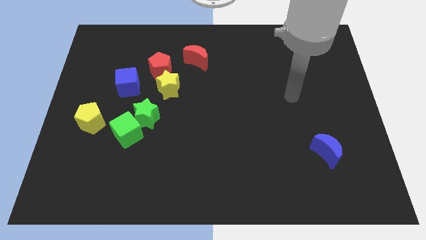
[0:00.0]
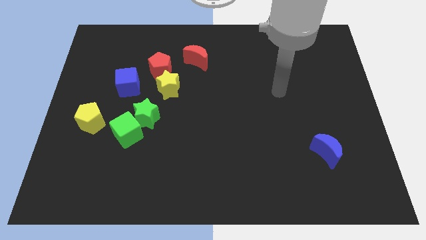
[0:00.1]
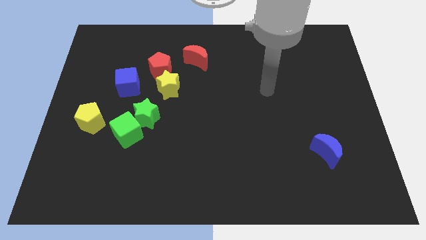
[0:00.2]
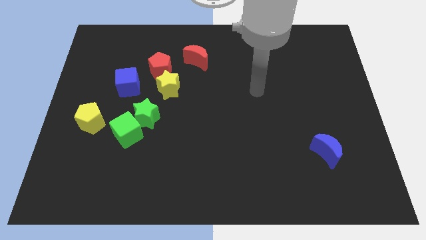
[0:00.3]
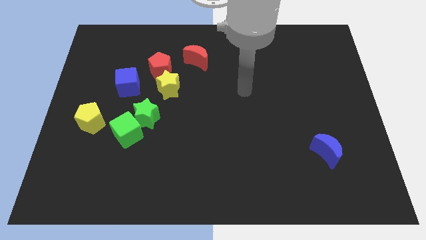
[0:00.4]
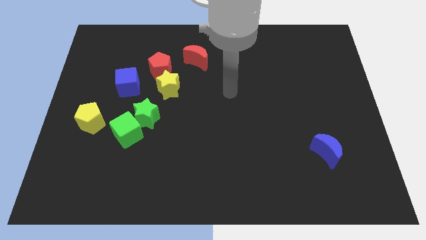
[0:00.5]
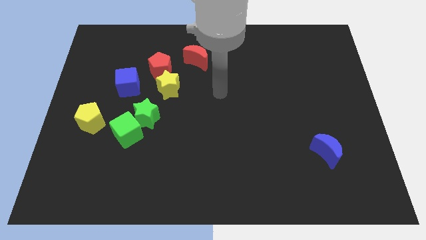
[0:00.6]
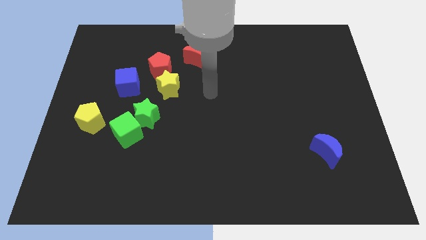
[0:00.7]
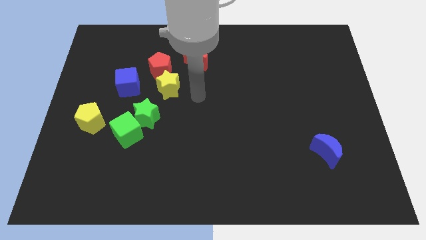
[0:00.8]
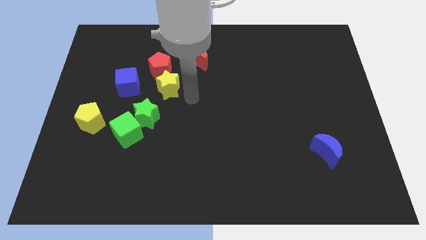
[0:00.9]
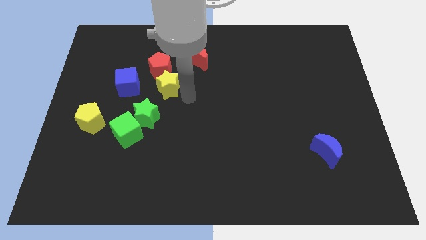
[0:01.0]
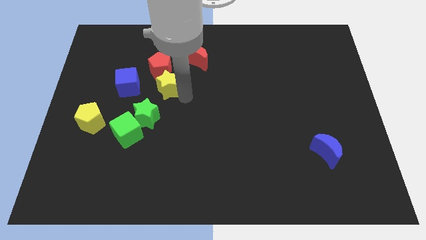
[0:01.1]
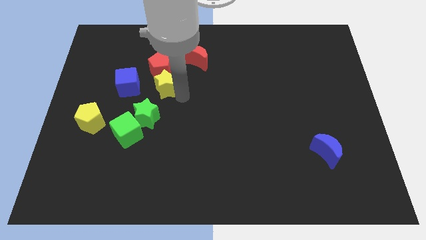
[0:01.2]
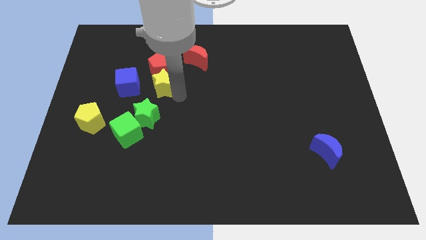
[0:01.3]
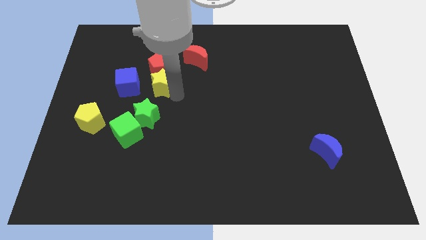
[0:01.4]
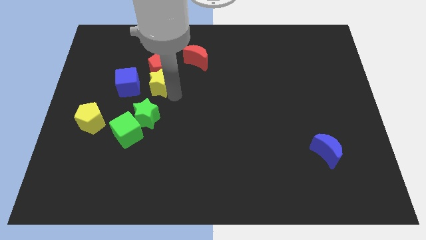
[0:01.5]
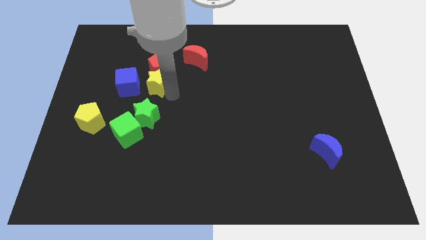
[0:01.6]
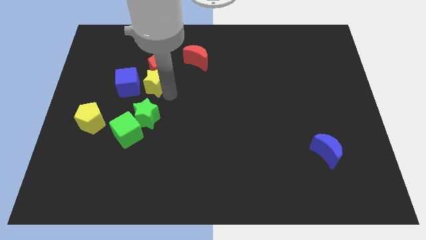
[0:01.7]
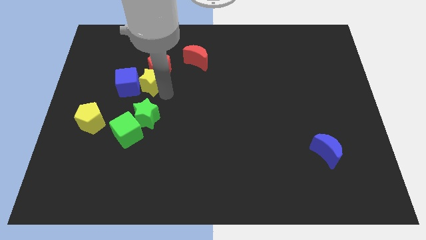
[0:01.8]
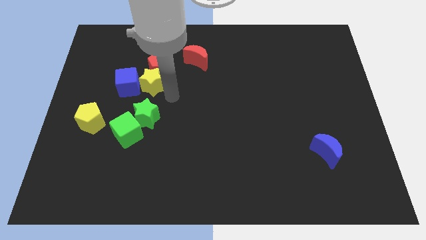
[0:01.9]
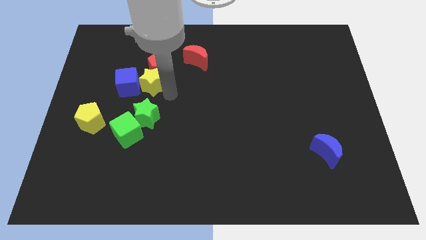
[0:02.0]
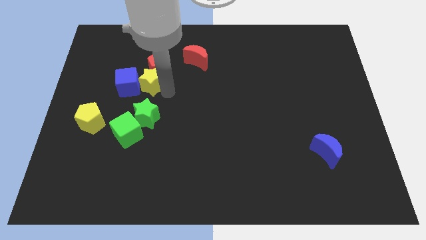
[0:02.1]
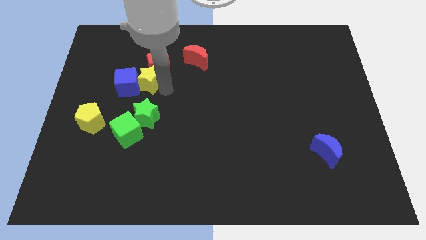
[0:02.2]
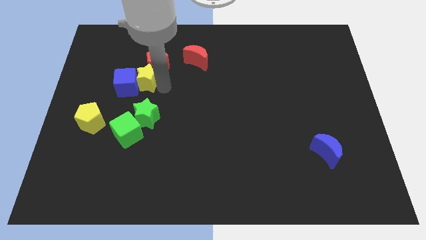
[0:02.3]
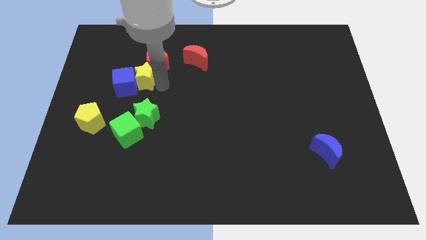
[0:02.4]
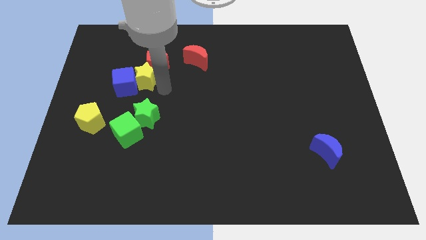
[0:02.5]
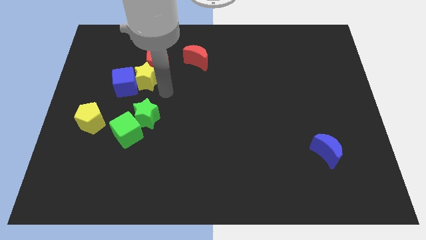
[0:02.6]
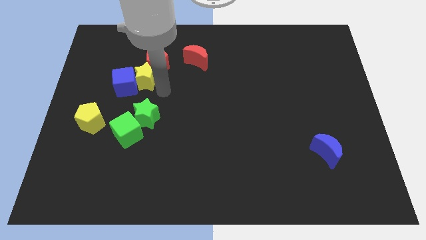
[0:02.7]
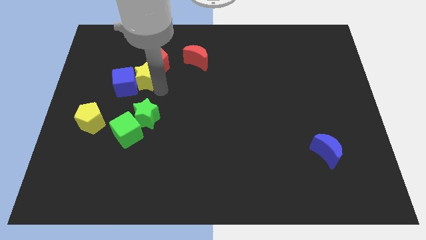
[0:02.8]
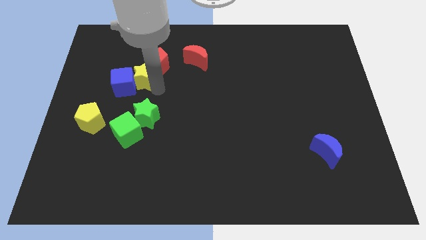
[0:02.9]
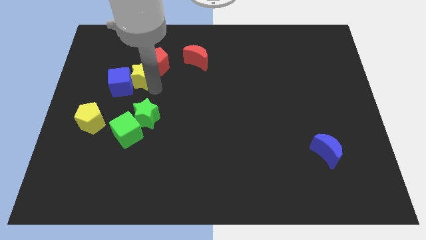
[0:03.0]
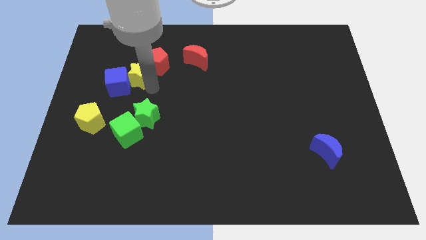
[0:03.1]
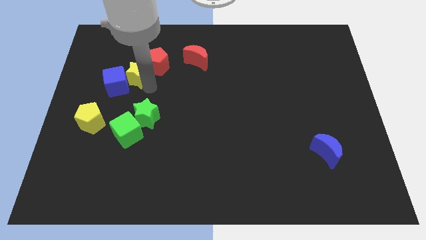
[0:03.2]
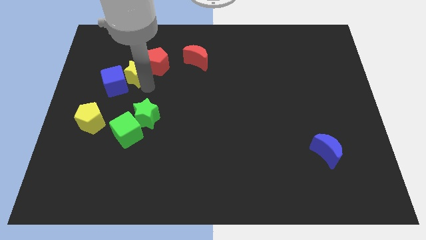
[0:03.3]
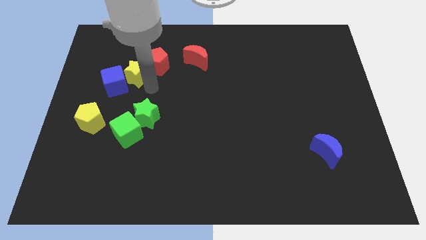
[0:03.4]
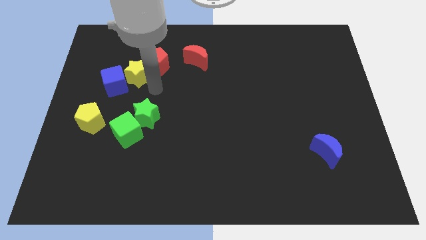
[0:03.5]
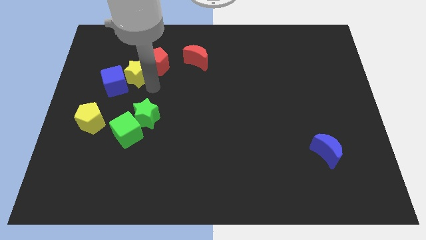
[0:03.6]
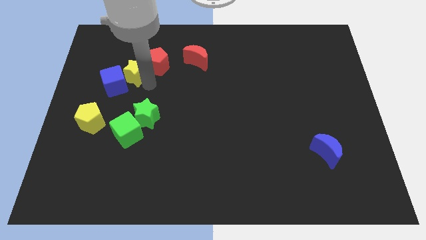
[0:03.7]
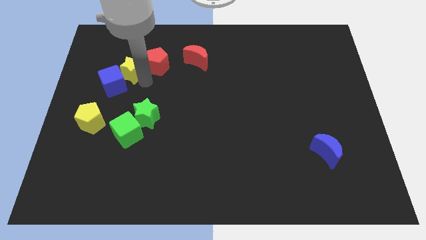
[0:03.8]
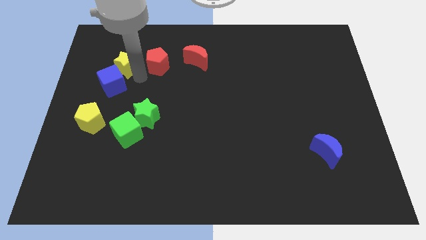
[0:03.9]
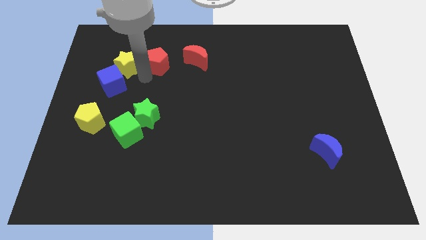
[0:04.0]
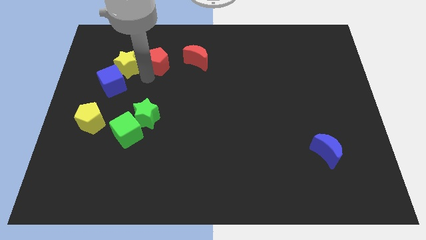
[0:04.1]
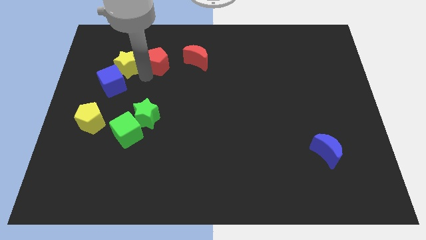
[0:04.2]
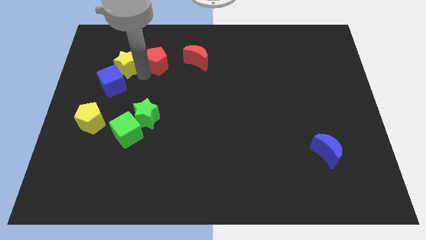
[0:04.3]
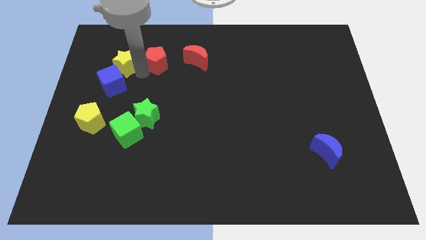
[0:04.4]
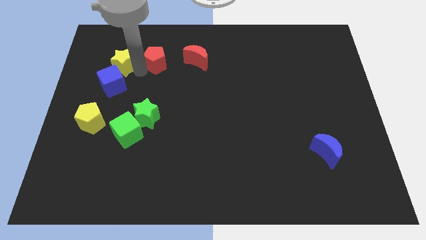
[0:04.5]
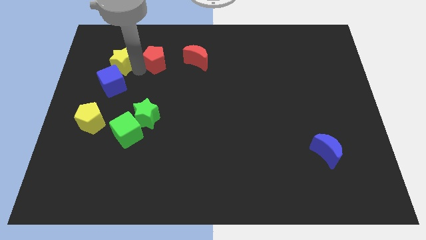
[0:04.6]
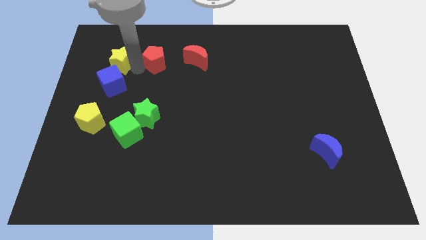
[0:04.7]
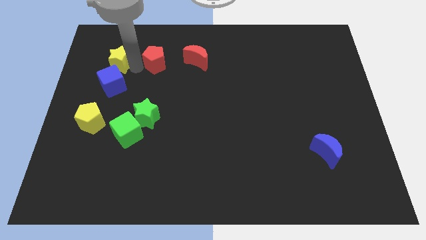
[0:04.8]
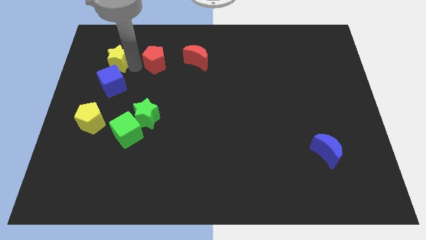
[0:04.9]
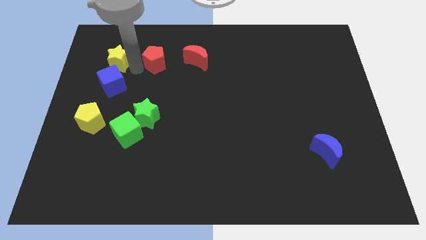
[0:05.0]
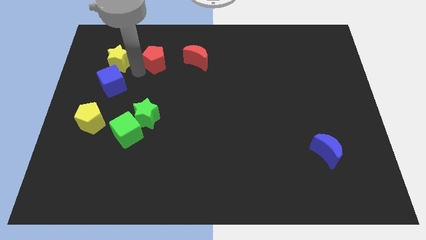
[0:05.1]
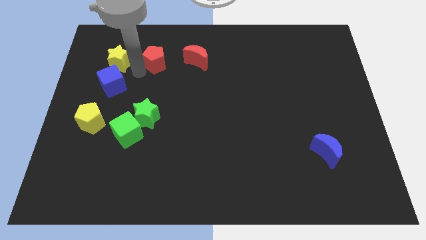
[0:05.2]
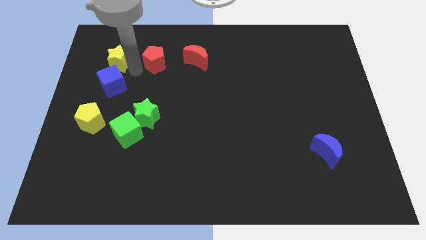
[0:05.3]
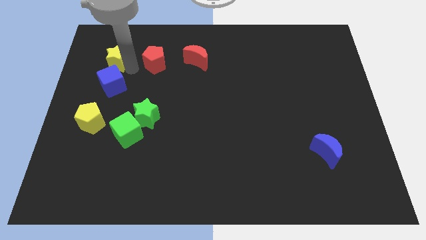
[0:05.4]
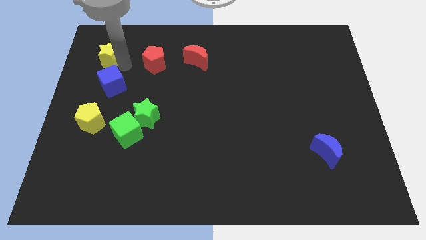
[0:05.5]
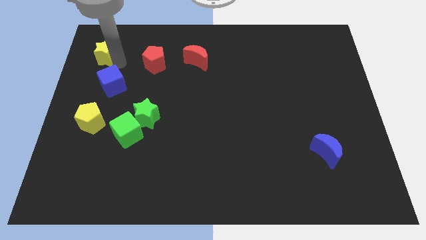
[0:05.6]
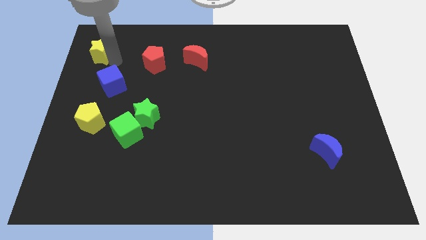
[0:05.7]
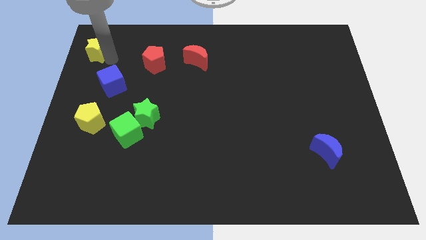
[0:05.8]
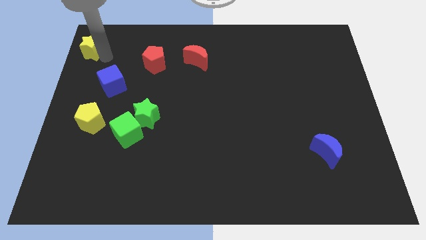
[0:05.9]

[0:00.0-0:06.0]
slide the yellow star to the top left

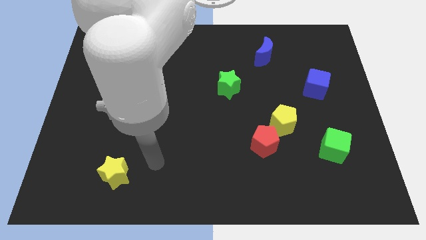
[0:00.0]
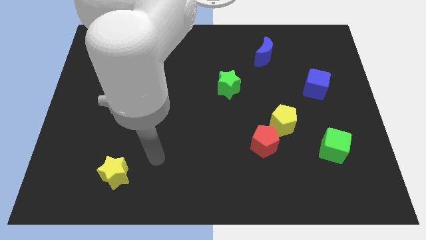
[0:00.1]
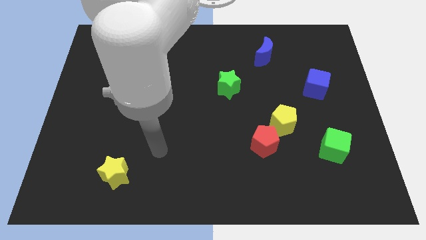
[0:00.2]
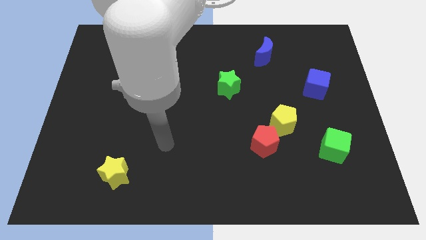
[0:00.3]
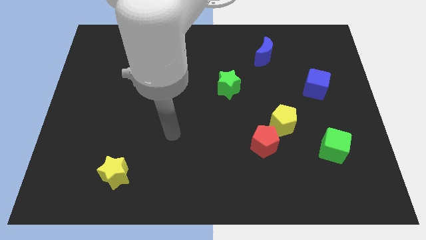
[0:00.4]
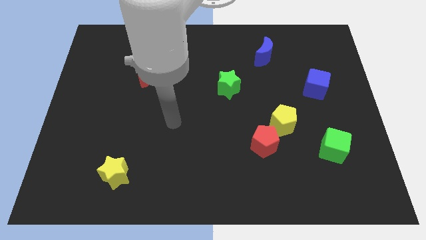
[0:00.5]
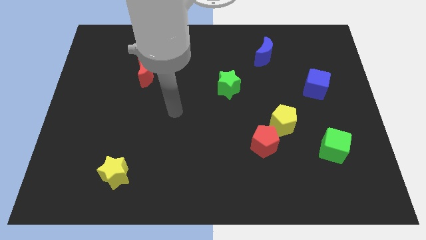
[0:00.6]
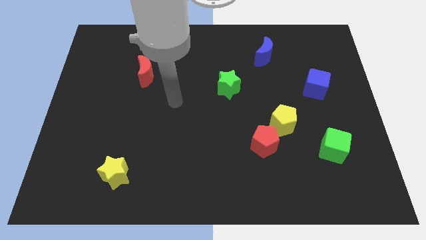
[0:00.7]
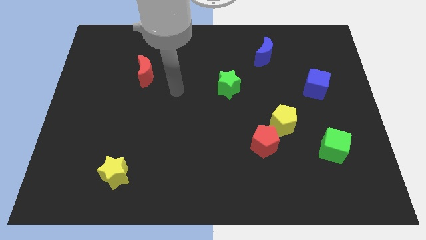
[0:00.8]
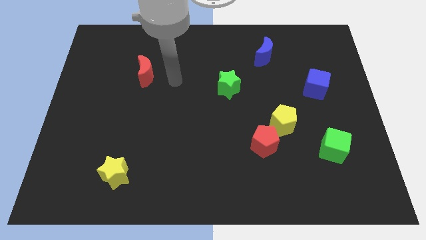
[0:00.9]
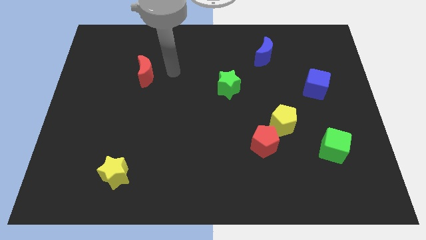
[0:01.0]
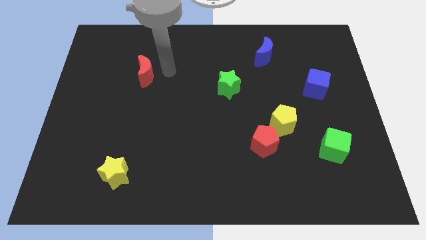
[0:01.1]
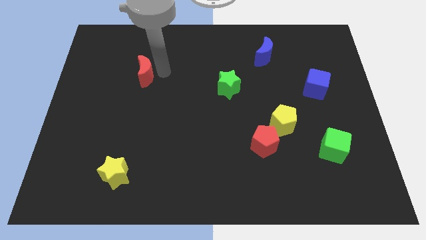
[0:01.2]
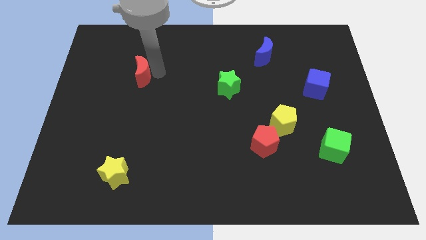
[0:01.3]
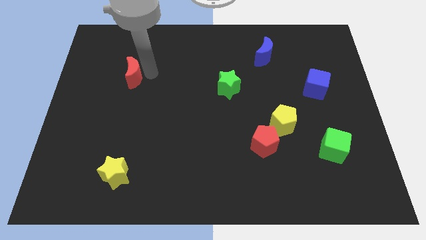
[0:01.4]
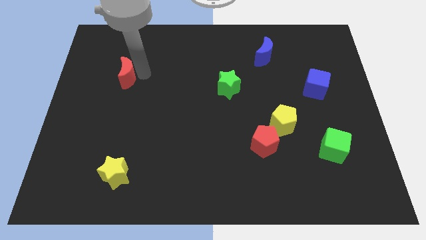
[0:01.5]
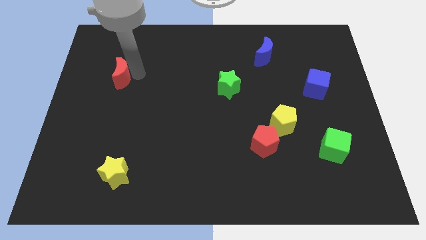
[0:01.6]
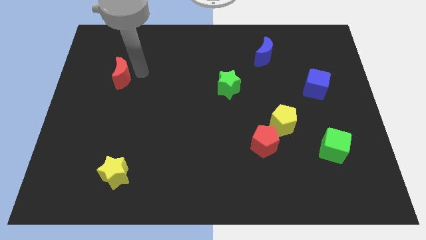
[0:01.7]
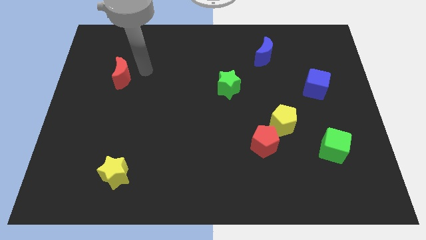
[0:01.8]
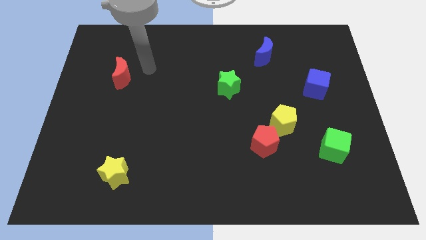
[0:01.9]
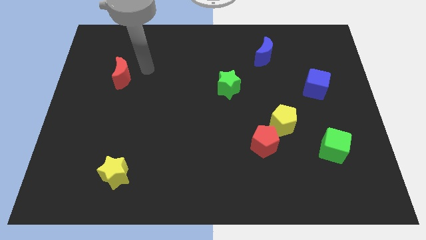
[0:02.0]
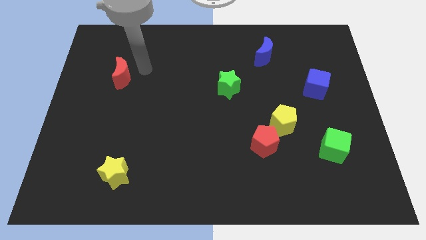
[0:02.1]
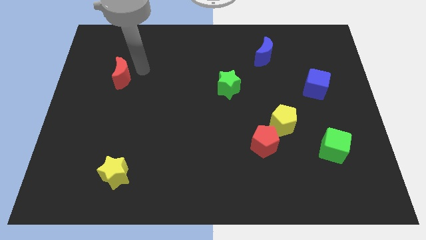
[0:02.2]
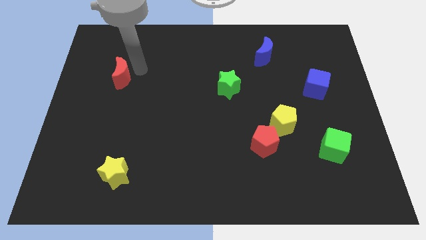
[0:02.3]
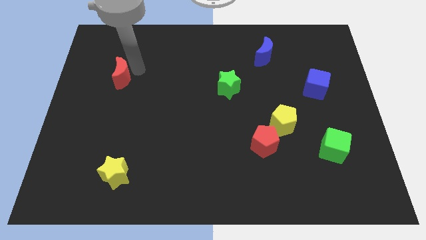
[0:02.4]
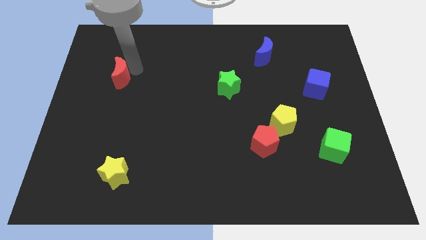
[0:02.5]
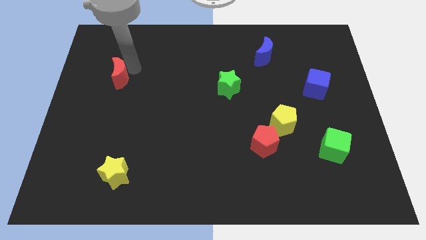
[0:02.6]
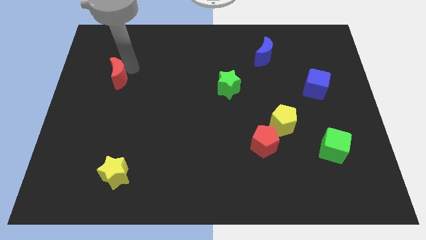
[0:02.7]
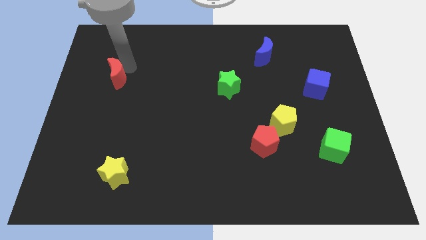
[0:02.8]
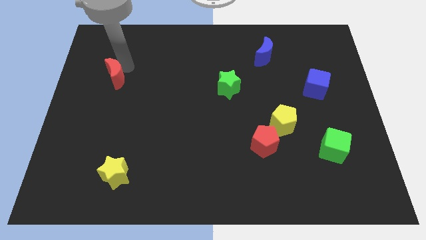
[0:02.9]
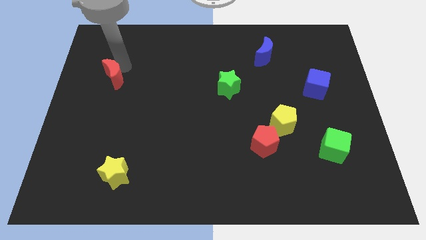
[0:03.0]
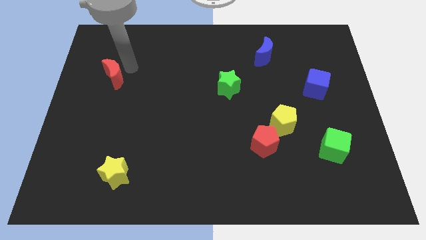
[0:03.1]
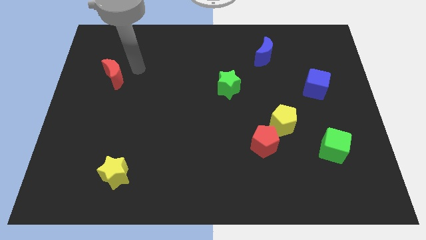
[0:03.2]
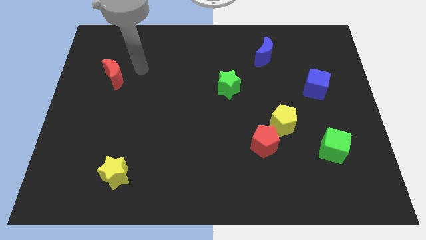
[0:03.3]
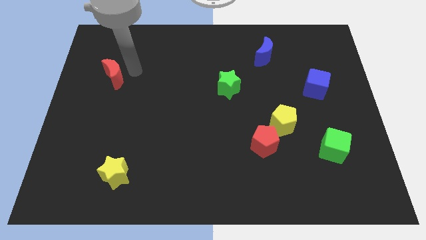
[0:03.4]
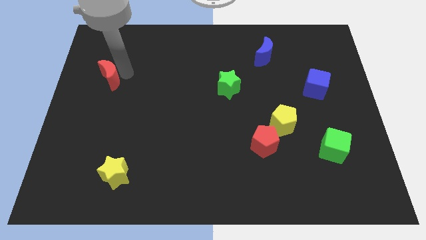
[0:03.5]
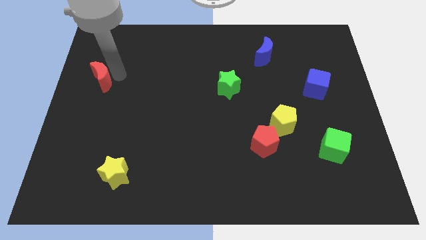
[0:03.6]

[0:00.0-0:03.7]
move the red moon to the left side
